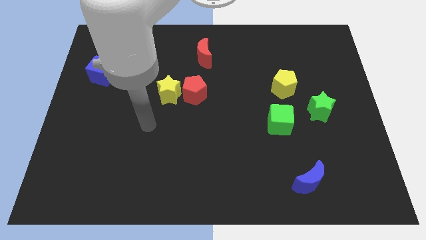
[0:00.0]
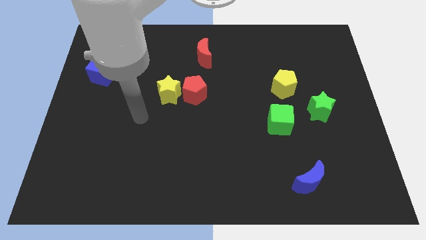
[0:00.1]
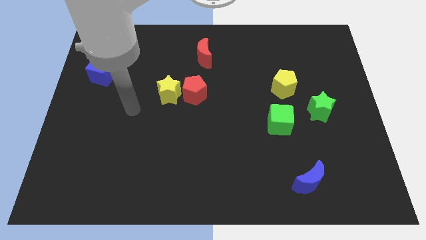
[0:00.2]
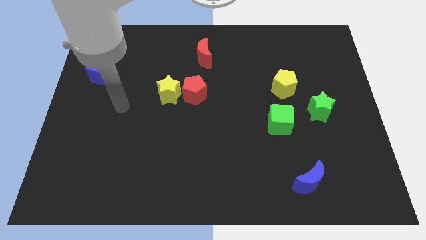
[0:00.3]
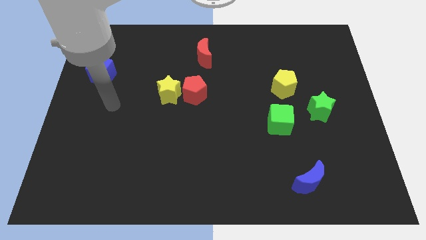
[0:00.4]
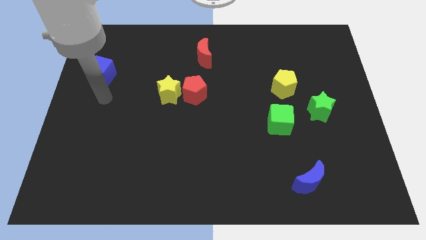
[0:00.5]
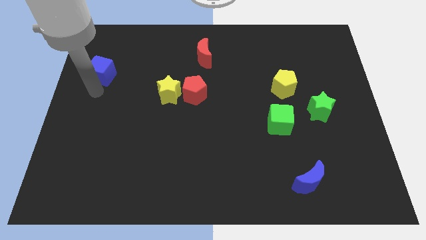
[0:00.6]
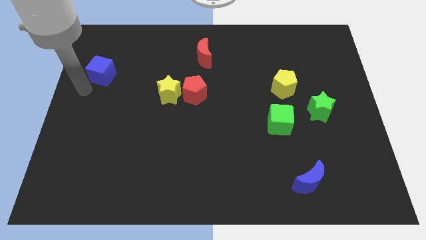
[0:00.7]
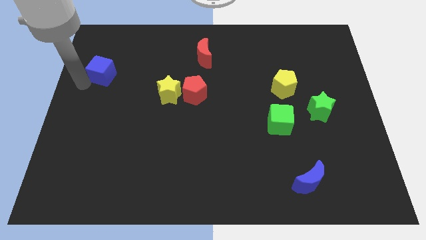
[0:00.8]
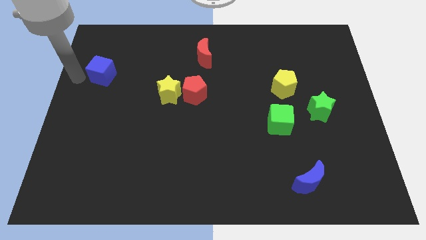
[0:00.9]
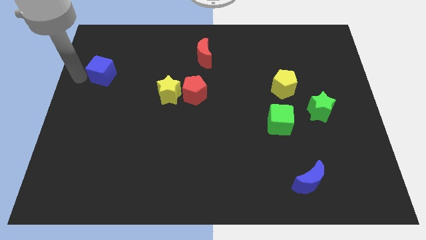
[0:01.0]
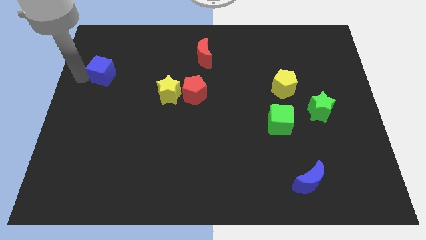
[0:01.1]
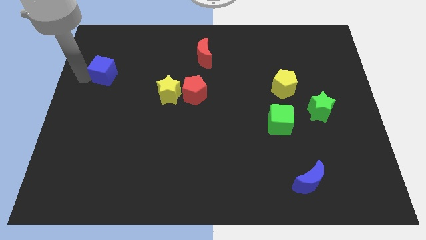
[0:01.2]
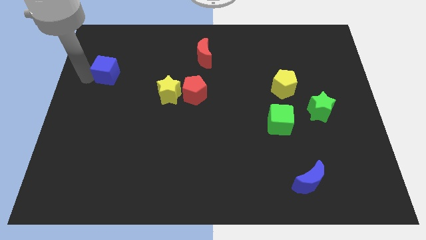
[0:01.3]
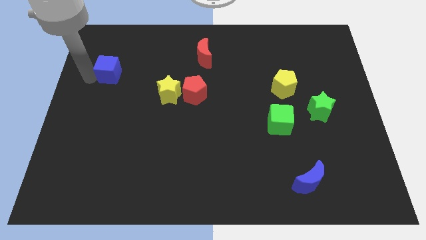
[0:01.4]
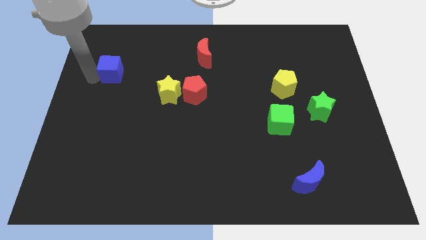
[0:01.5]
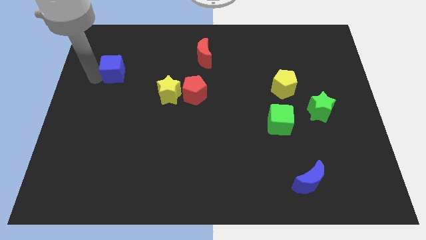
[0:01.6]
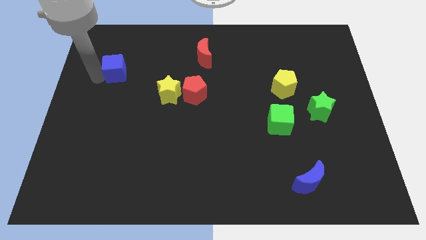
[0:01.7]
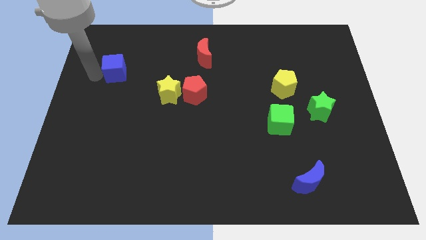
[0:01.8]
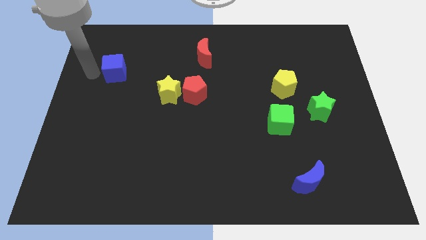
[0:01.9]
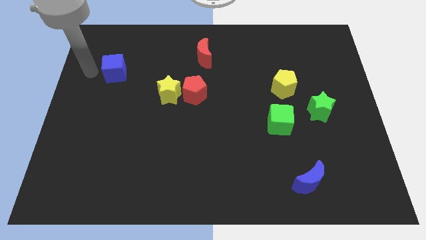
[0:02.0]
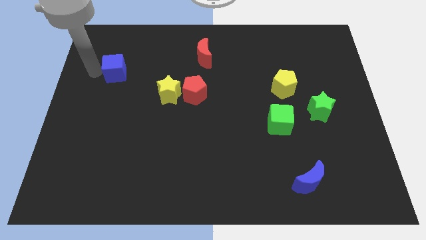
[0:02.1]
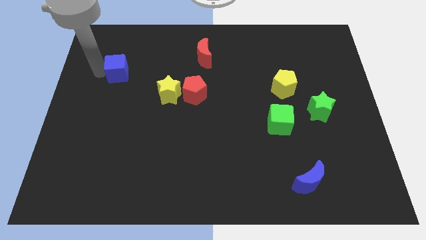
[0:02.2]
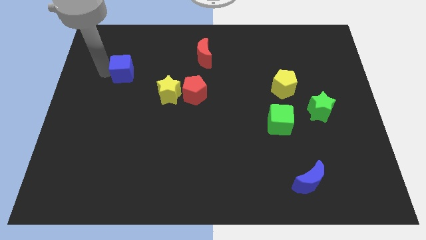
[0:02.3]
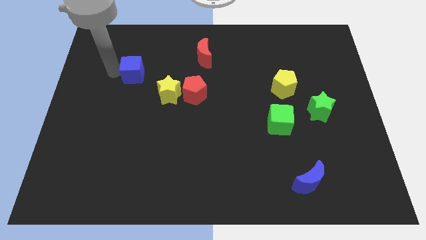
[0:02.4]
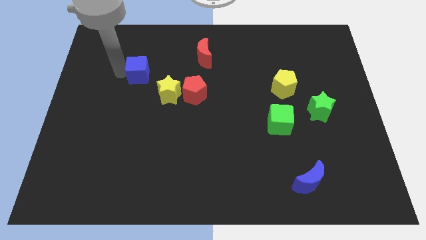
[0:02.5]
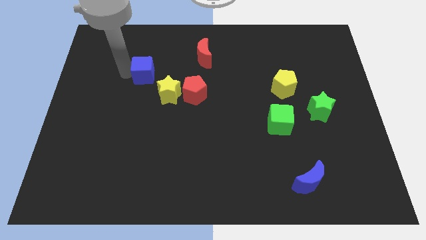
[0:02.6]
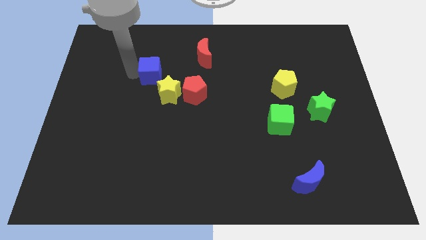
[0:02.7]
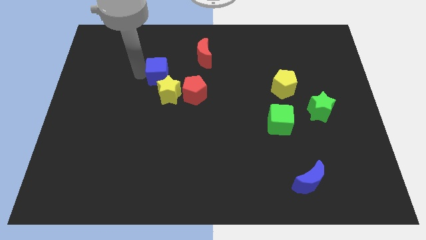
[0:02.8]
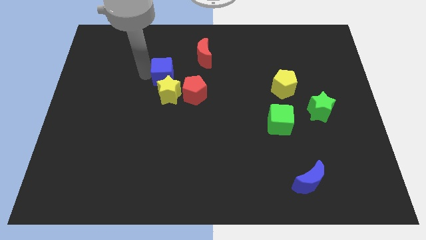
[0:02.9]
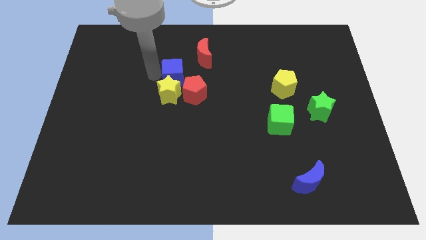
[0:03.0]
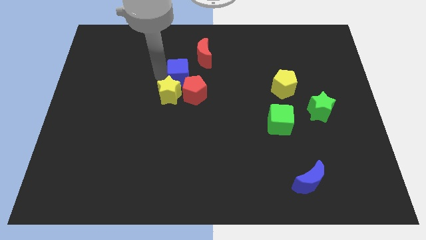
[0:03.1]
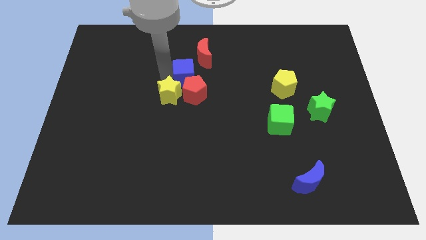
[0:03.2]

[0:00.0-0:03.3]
move the blue cube to the right

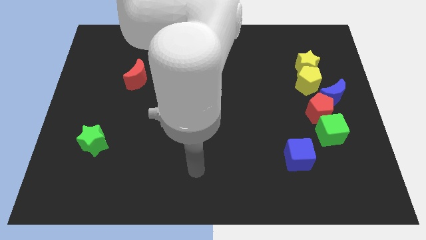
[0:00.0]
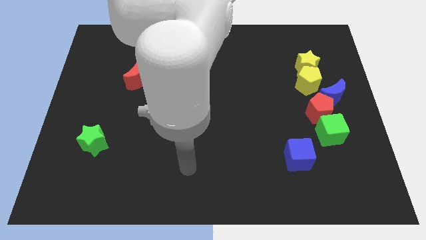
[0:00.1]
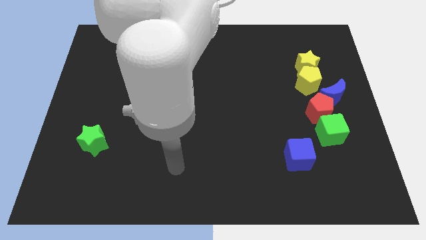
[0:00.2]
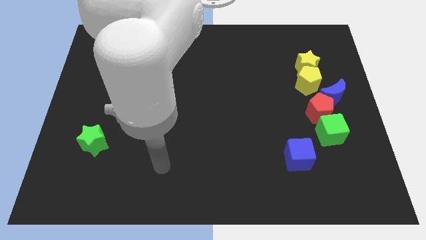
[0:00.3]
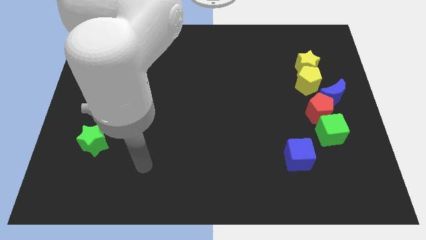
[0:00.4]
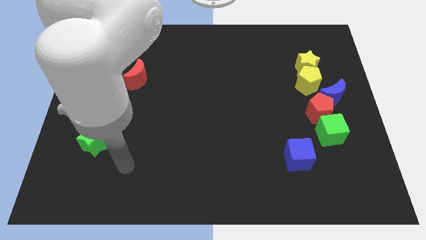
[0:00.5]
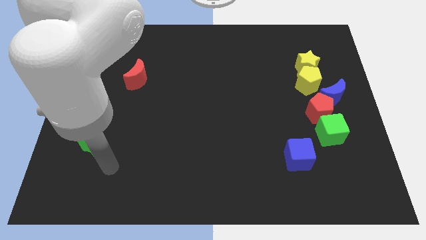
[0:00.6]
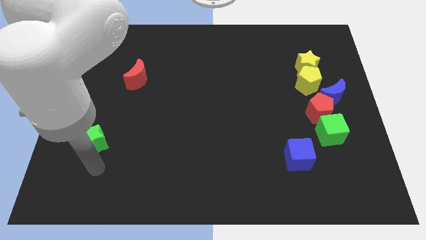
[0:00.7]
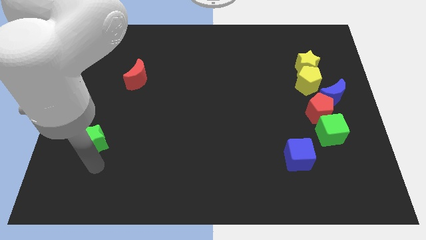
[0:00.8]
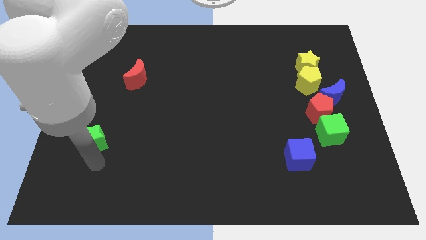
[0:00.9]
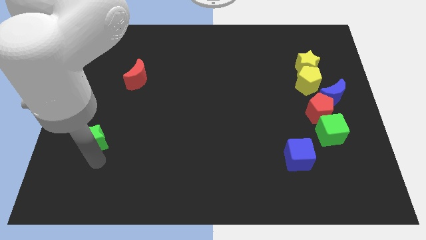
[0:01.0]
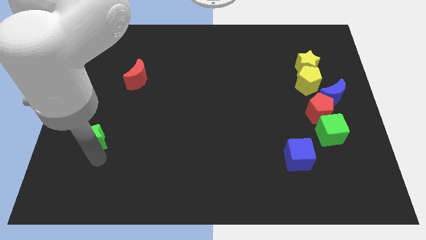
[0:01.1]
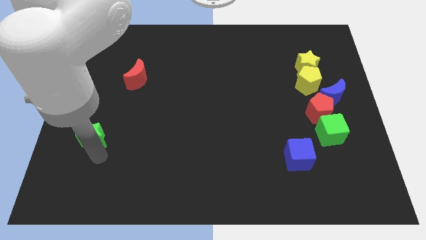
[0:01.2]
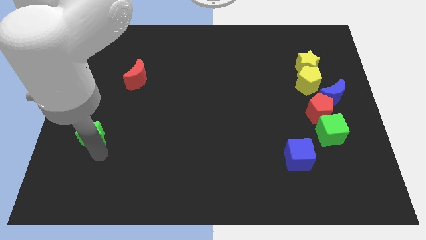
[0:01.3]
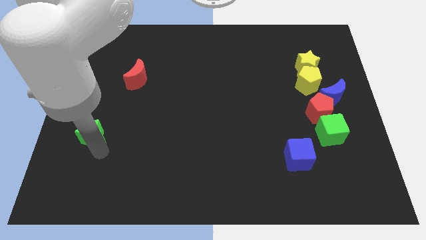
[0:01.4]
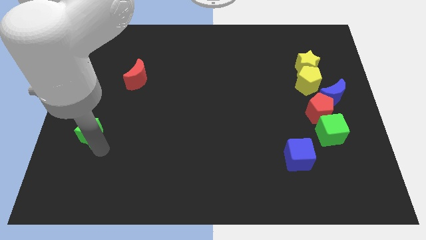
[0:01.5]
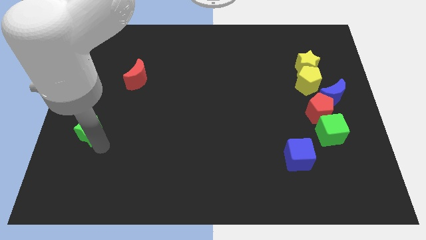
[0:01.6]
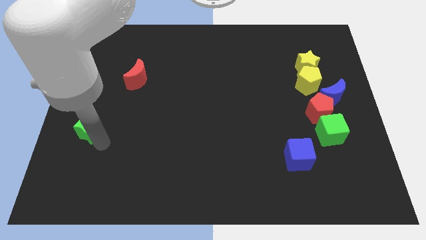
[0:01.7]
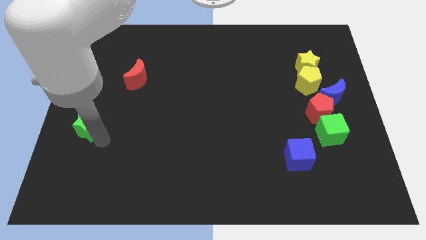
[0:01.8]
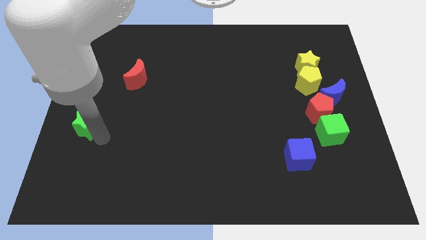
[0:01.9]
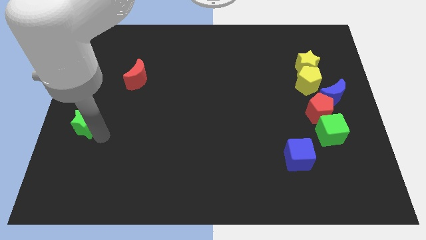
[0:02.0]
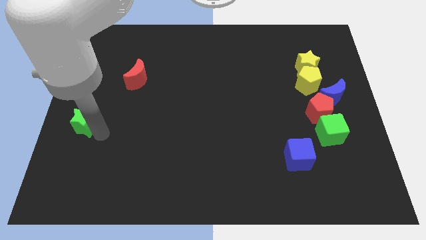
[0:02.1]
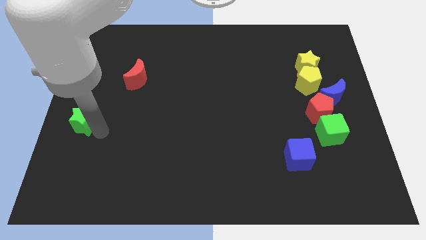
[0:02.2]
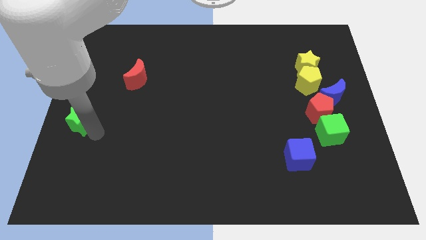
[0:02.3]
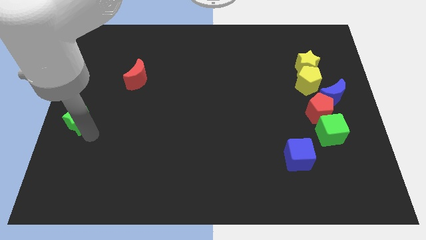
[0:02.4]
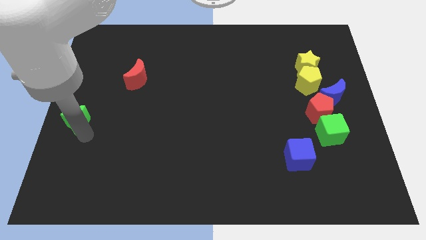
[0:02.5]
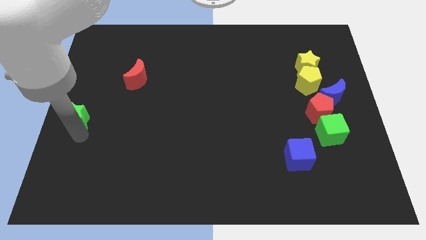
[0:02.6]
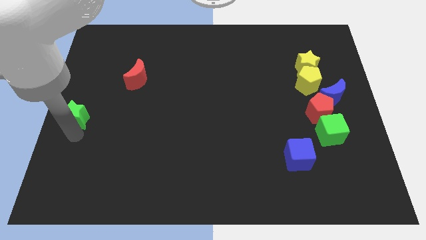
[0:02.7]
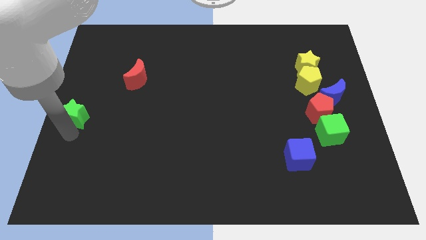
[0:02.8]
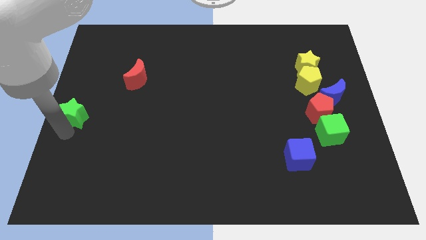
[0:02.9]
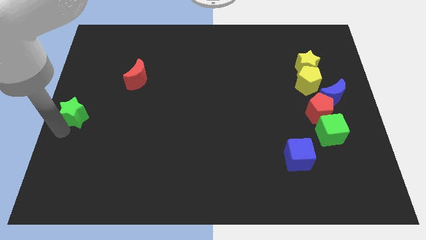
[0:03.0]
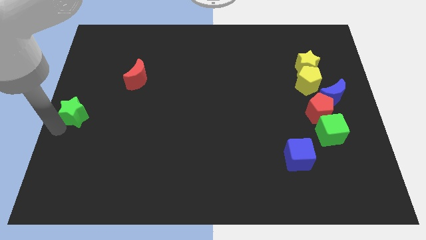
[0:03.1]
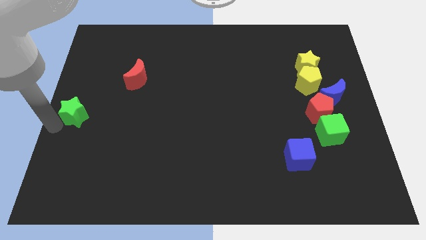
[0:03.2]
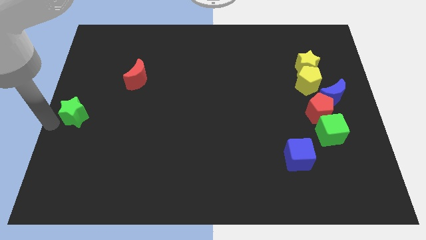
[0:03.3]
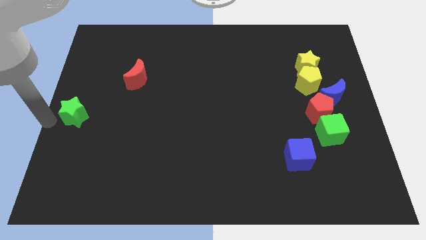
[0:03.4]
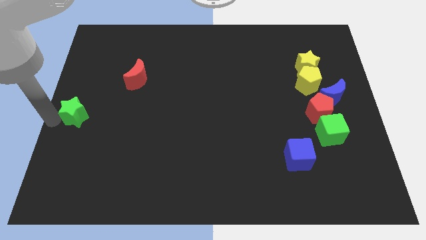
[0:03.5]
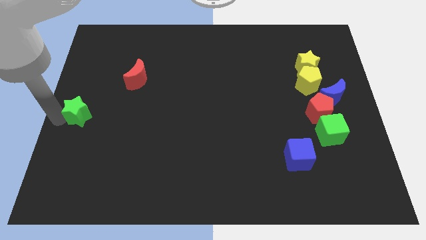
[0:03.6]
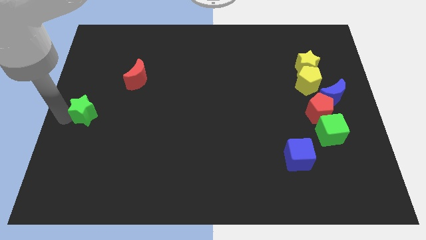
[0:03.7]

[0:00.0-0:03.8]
move the green star a bit upwards

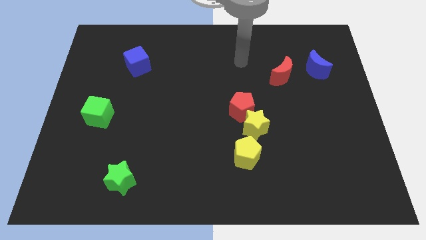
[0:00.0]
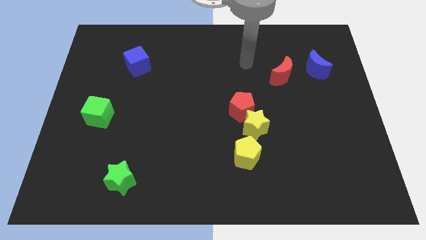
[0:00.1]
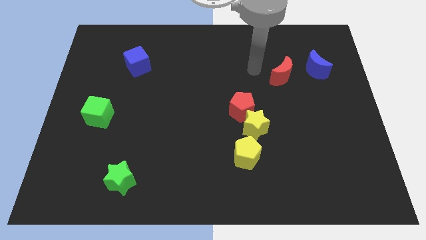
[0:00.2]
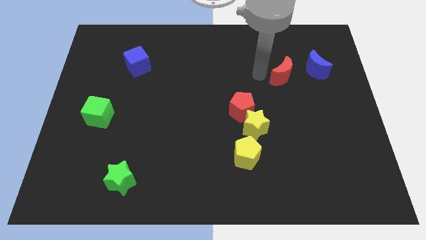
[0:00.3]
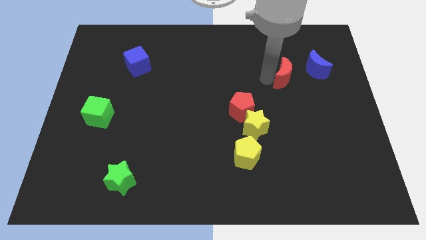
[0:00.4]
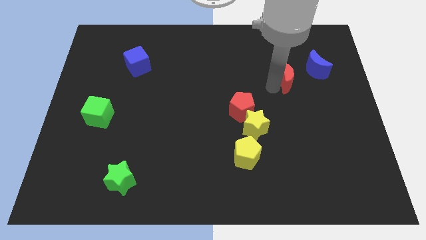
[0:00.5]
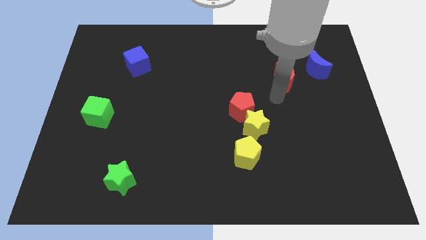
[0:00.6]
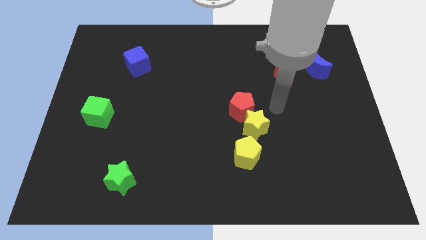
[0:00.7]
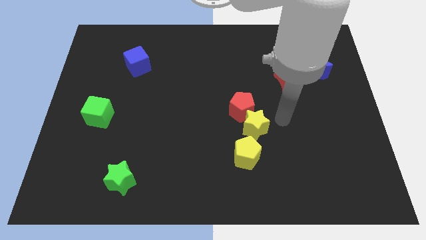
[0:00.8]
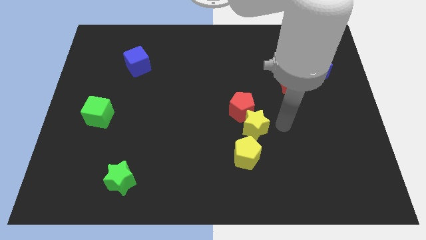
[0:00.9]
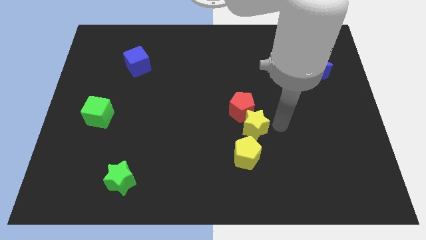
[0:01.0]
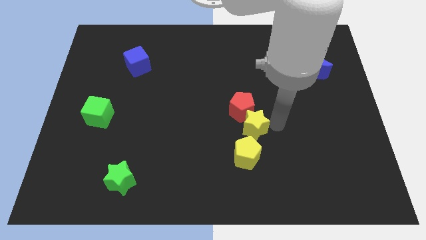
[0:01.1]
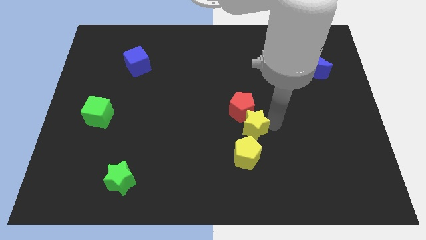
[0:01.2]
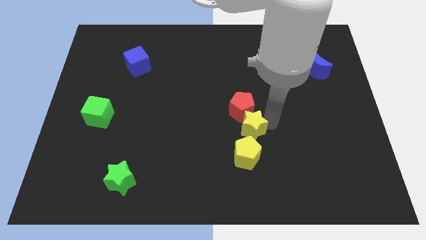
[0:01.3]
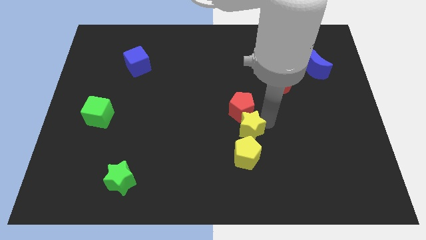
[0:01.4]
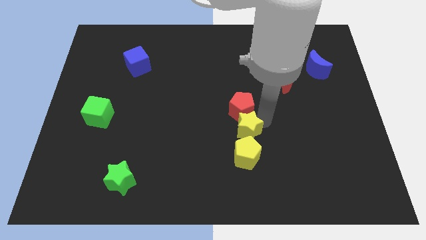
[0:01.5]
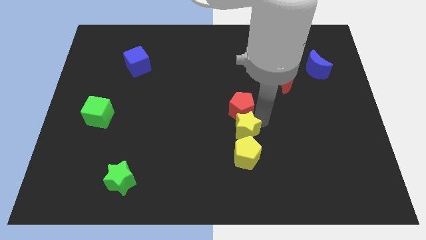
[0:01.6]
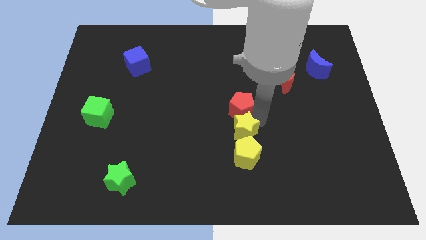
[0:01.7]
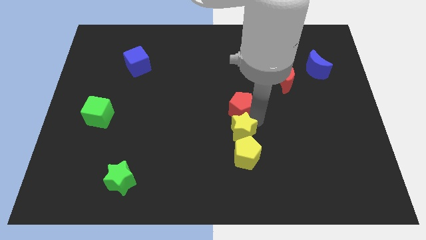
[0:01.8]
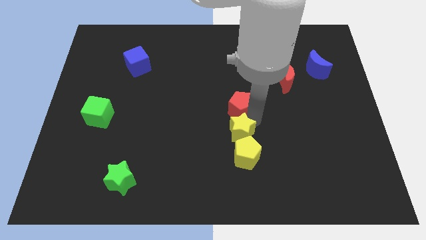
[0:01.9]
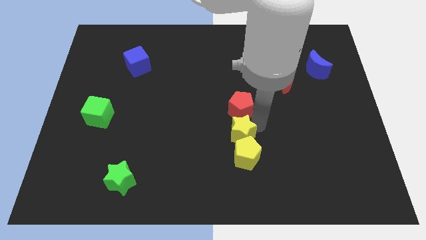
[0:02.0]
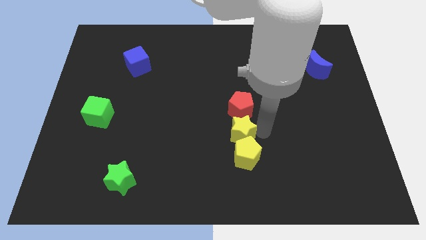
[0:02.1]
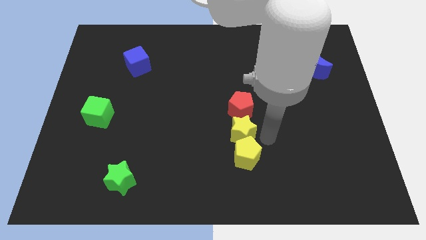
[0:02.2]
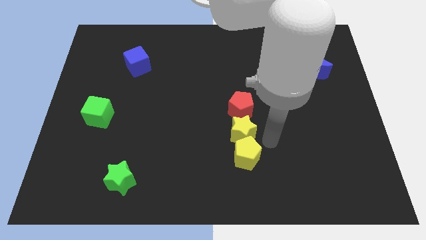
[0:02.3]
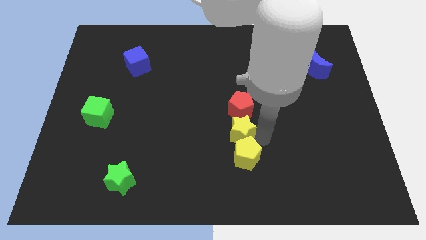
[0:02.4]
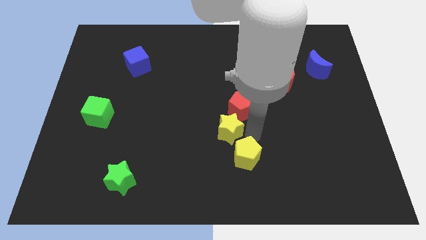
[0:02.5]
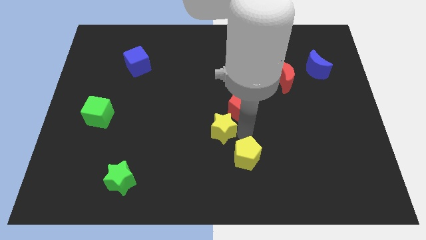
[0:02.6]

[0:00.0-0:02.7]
push the yellow star a little bit left
